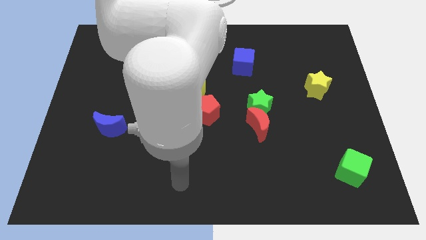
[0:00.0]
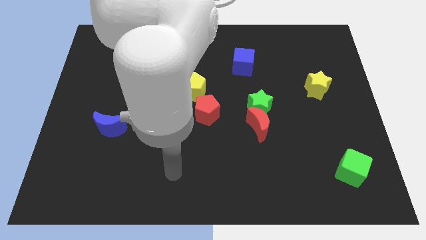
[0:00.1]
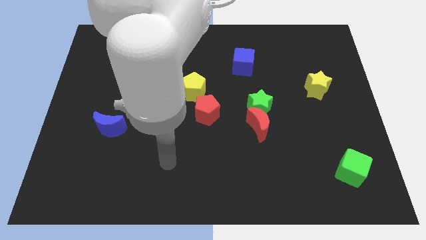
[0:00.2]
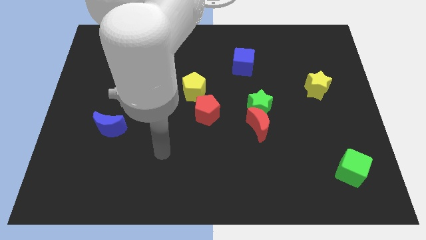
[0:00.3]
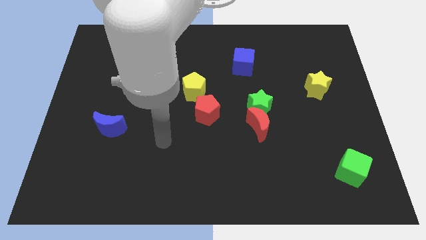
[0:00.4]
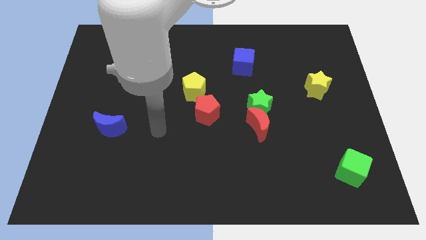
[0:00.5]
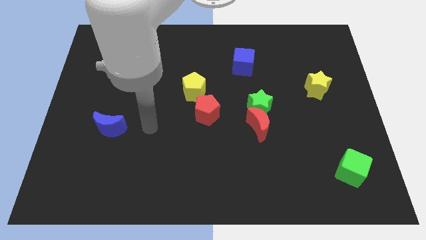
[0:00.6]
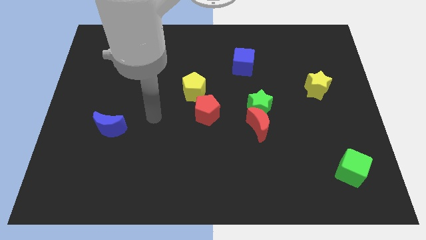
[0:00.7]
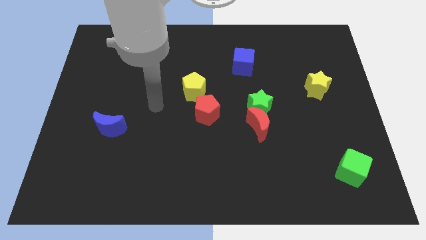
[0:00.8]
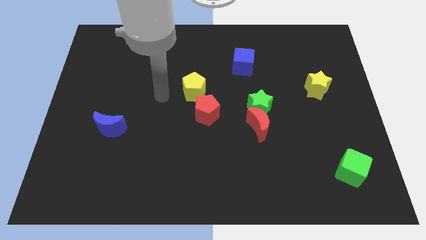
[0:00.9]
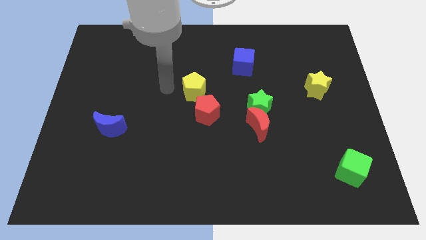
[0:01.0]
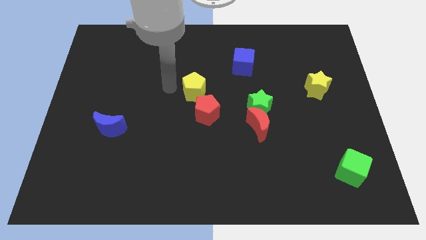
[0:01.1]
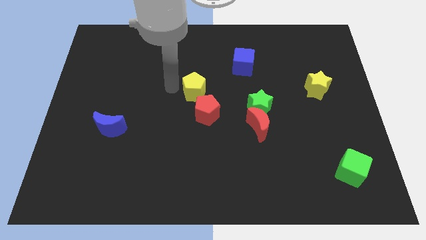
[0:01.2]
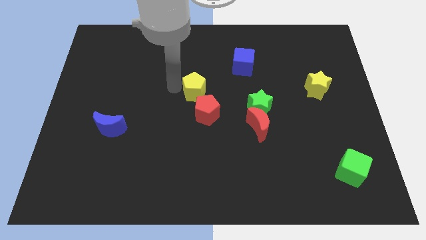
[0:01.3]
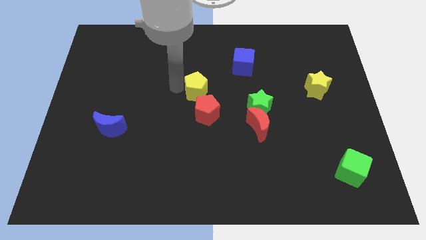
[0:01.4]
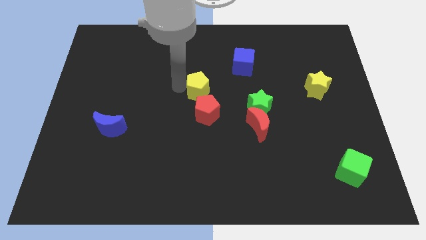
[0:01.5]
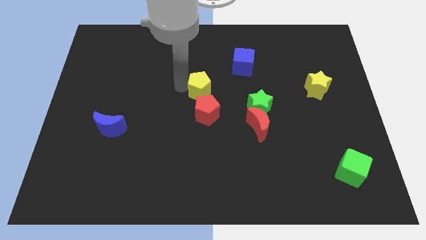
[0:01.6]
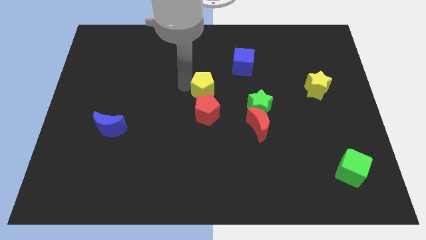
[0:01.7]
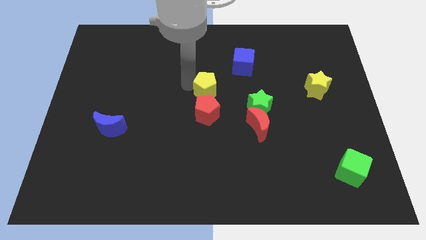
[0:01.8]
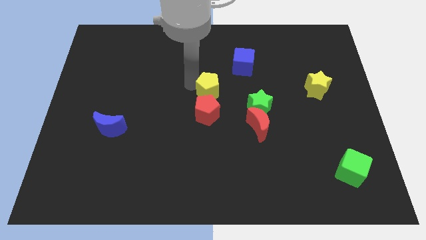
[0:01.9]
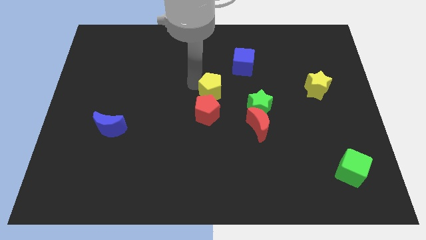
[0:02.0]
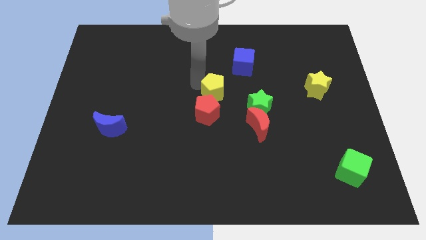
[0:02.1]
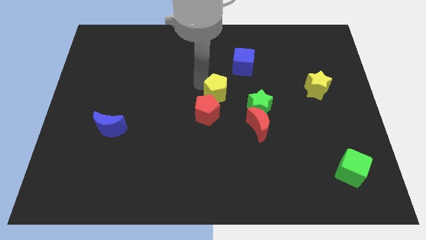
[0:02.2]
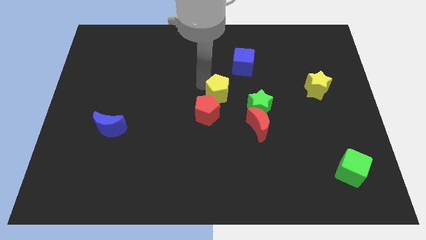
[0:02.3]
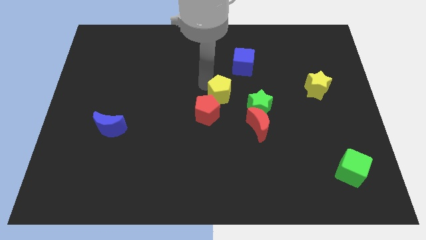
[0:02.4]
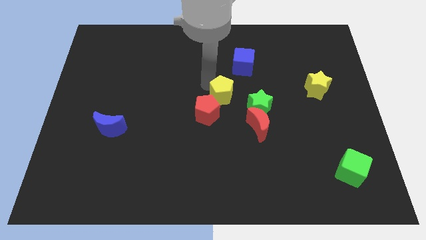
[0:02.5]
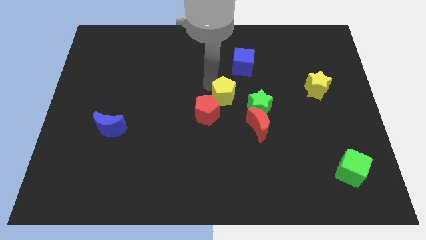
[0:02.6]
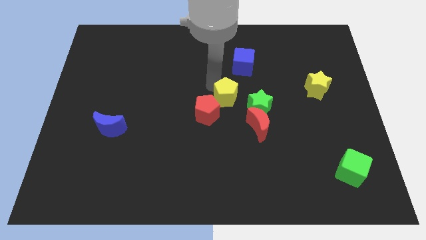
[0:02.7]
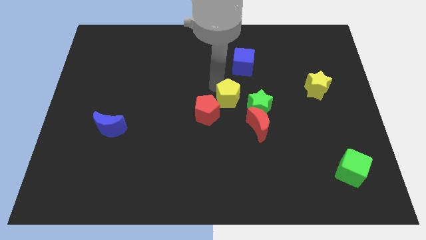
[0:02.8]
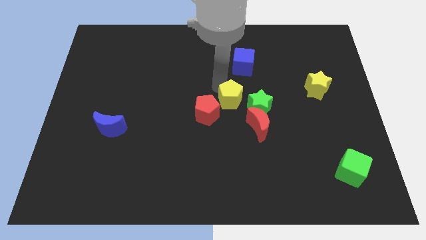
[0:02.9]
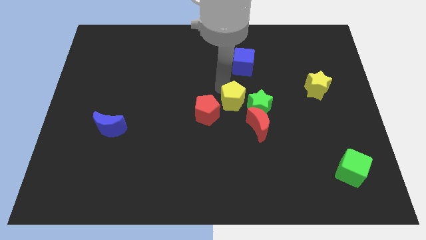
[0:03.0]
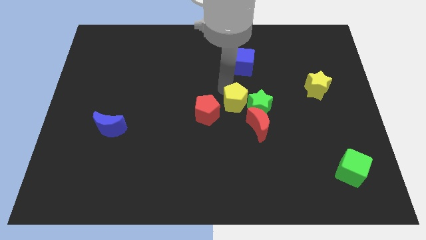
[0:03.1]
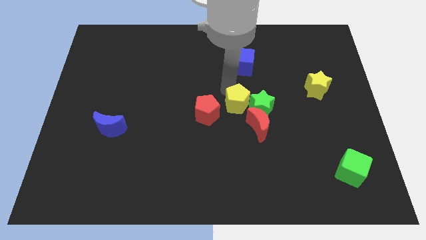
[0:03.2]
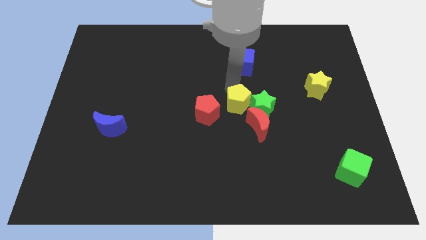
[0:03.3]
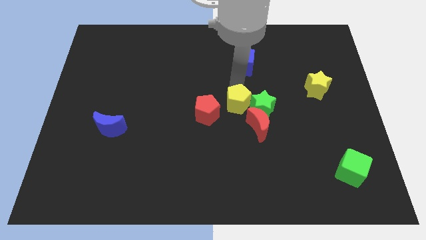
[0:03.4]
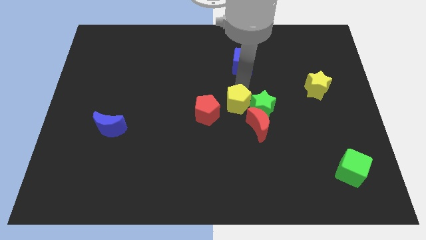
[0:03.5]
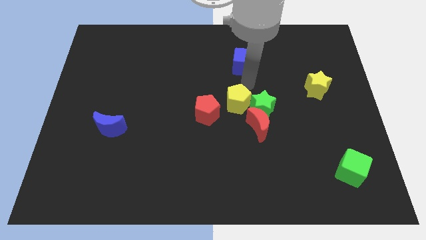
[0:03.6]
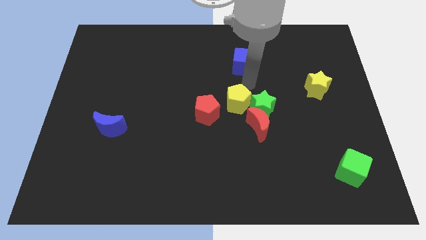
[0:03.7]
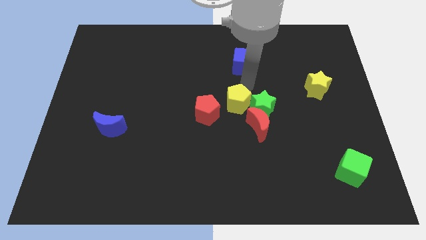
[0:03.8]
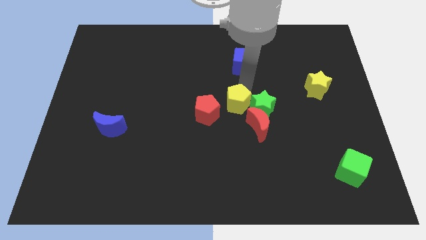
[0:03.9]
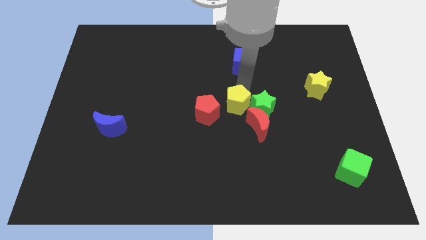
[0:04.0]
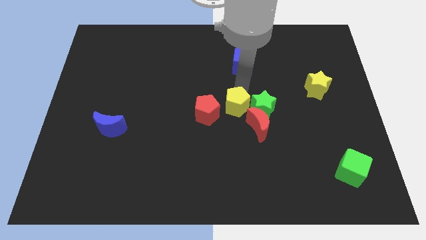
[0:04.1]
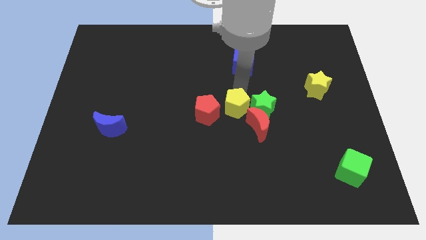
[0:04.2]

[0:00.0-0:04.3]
slide the yellow pentagon diagonally down and to the left of the green star

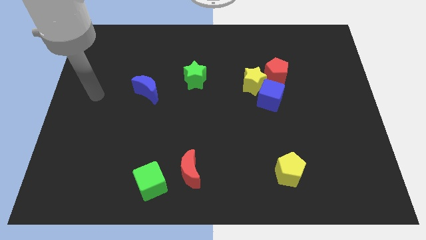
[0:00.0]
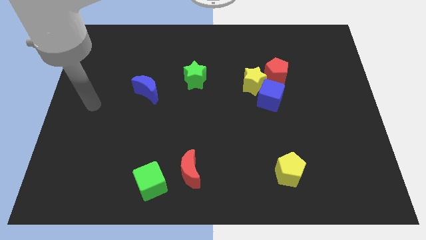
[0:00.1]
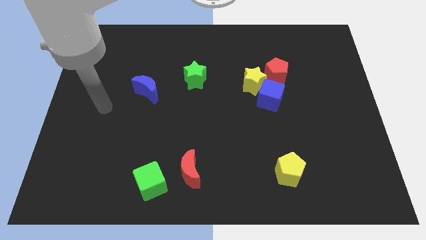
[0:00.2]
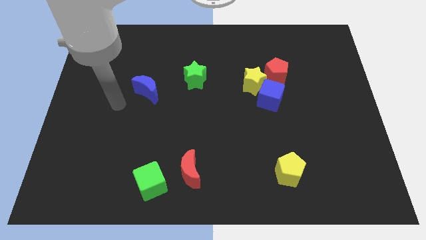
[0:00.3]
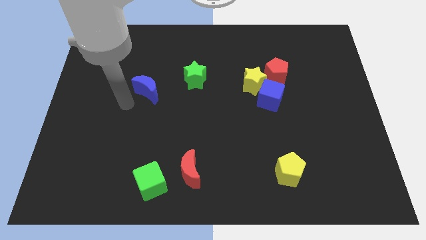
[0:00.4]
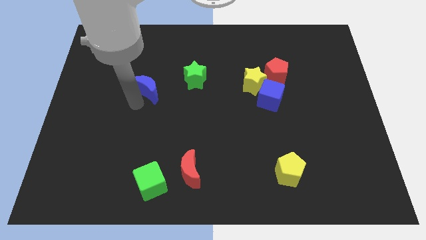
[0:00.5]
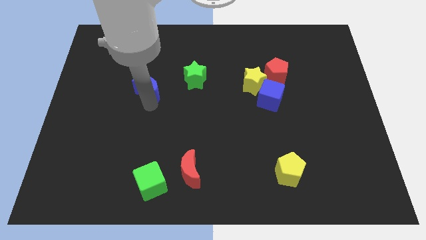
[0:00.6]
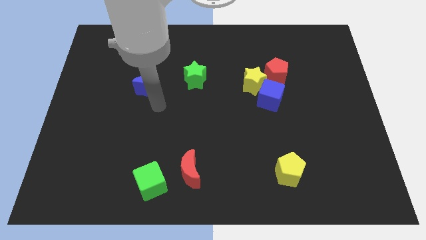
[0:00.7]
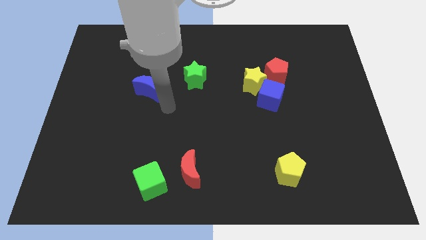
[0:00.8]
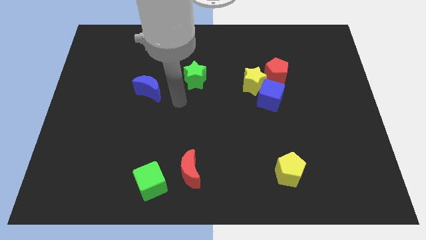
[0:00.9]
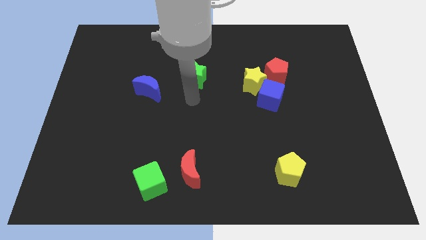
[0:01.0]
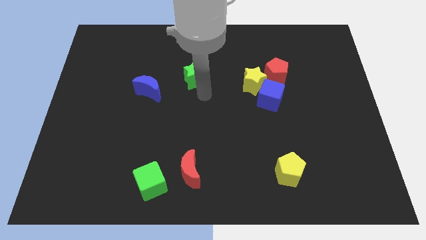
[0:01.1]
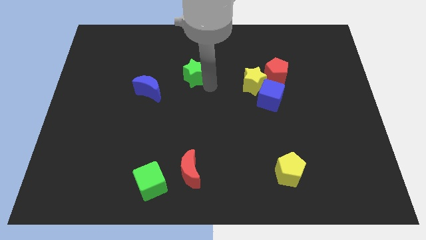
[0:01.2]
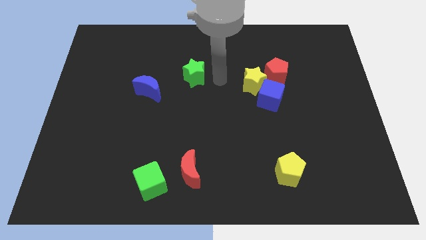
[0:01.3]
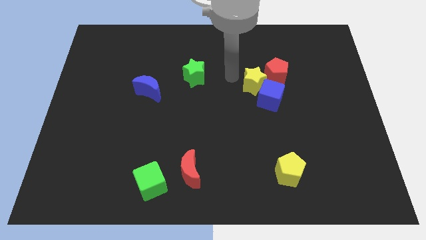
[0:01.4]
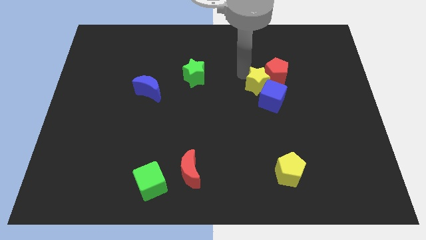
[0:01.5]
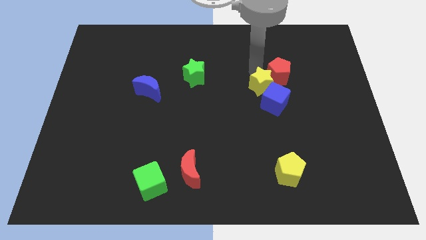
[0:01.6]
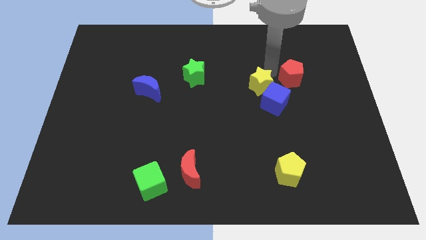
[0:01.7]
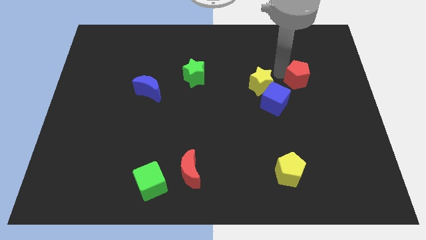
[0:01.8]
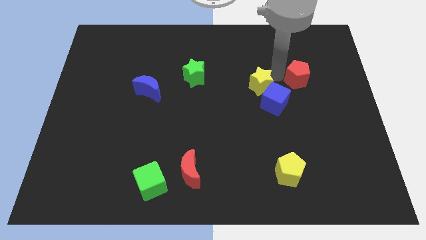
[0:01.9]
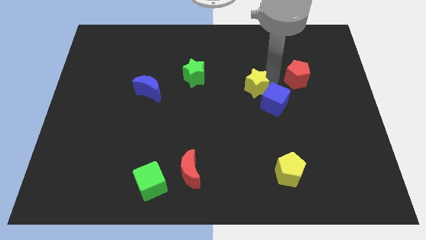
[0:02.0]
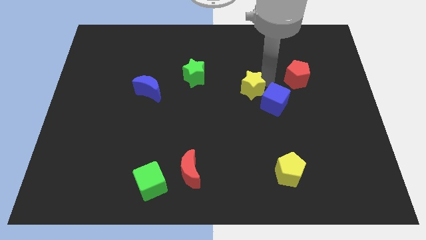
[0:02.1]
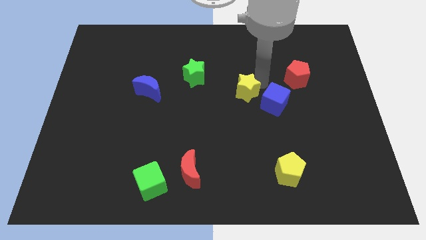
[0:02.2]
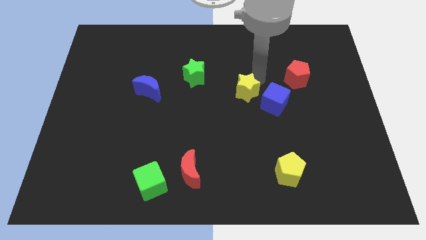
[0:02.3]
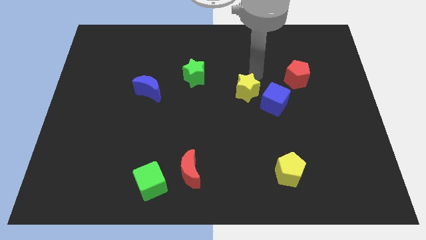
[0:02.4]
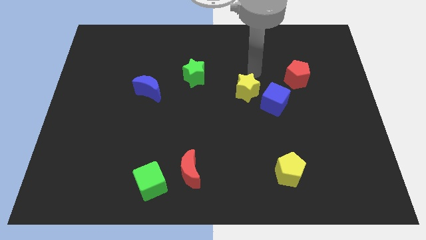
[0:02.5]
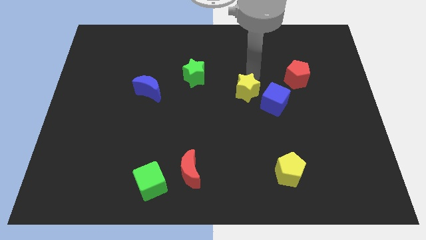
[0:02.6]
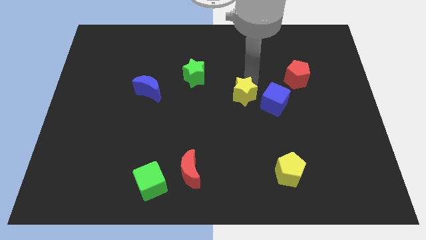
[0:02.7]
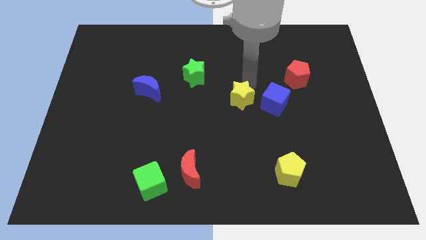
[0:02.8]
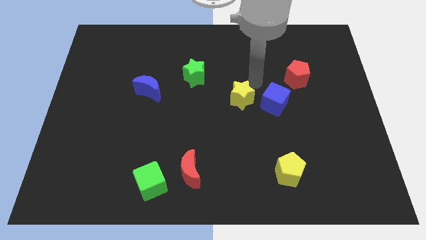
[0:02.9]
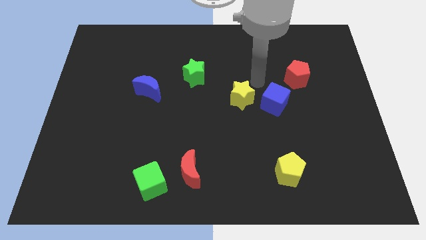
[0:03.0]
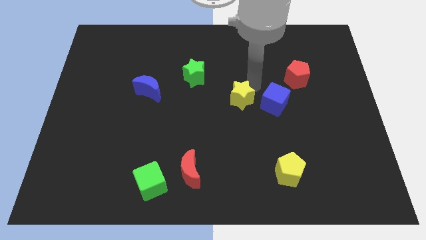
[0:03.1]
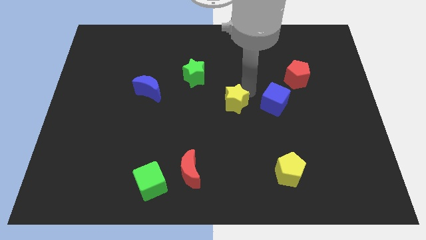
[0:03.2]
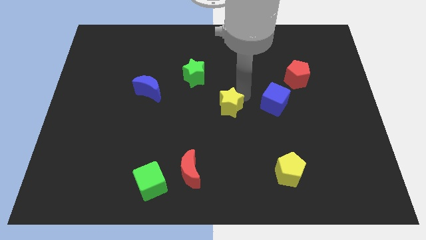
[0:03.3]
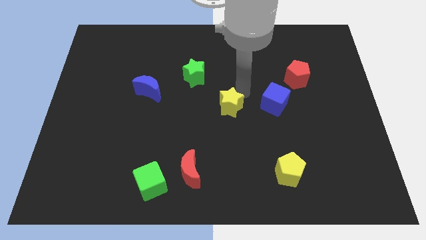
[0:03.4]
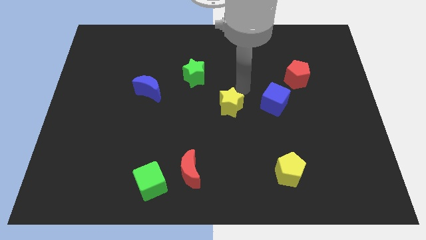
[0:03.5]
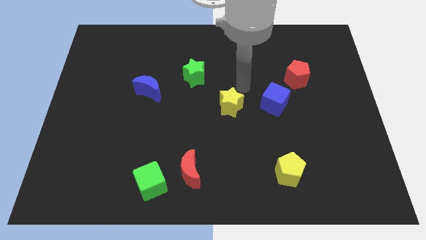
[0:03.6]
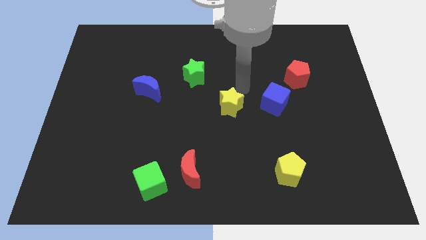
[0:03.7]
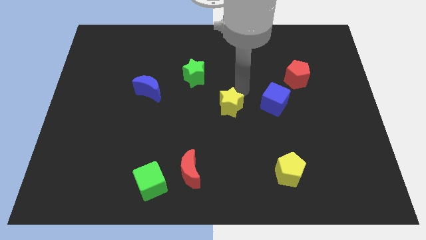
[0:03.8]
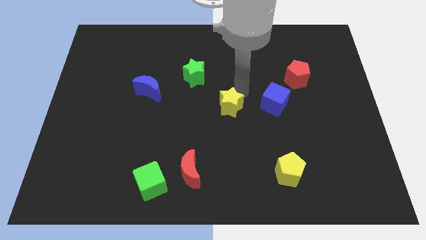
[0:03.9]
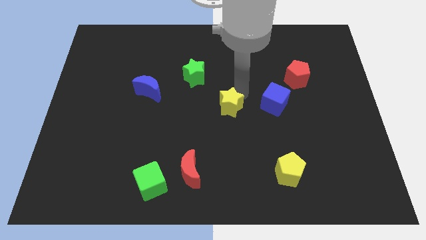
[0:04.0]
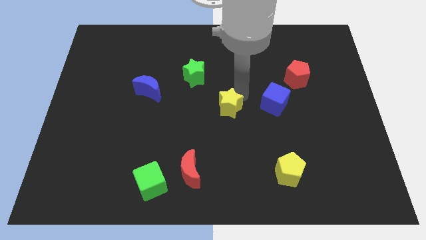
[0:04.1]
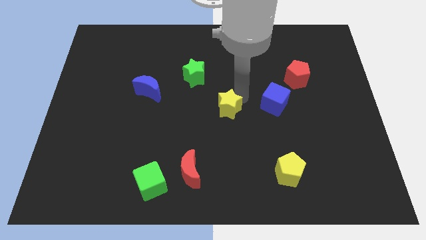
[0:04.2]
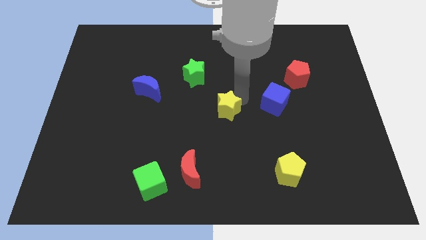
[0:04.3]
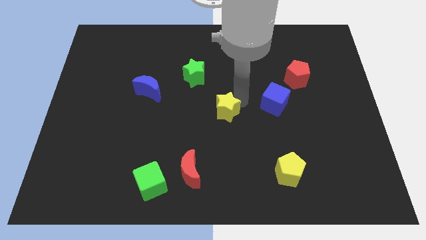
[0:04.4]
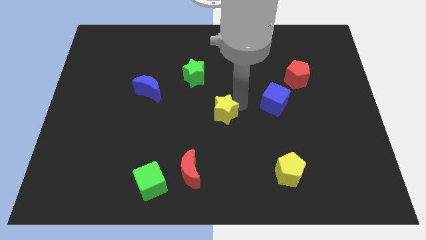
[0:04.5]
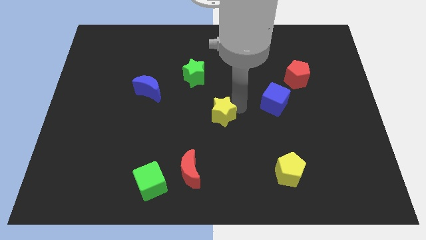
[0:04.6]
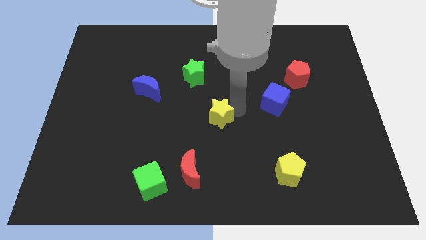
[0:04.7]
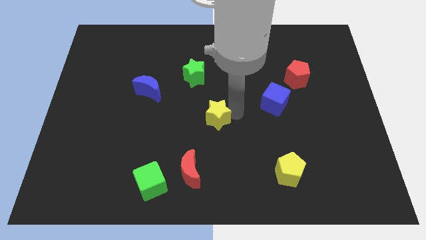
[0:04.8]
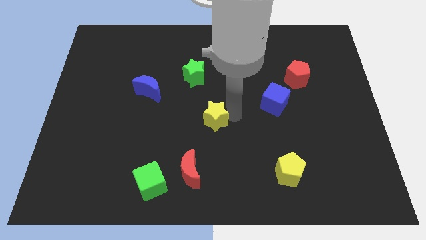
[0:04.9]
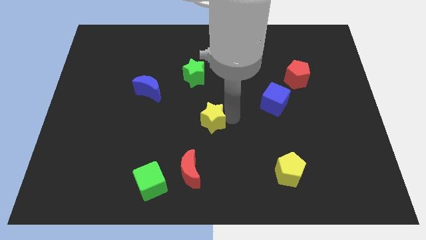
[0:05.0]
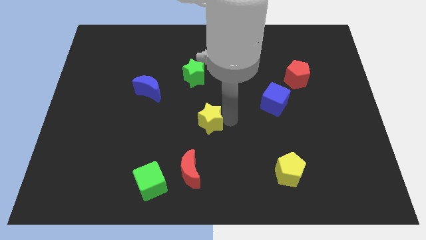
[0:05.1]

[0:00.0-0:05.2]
push the yellow star above the red moon
